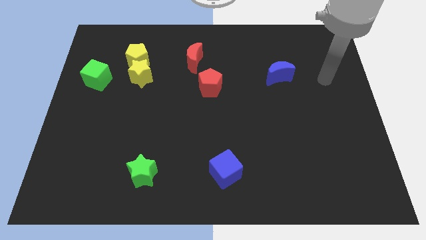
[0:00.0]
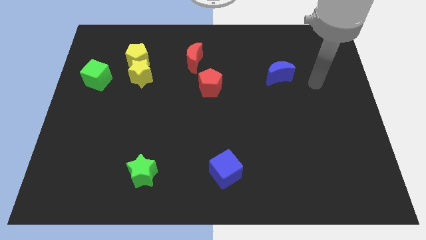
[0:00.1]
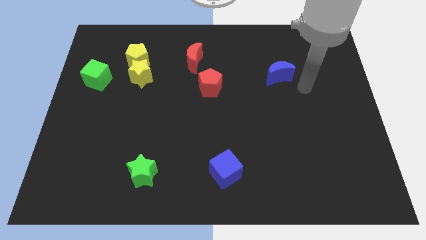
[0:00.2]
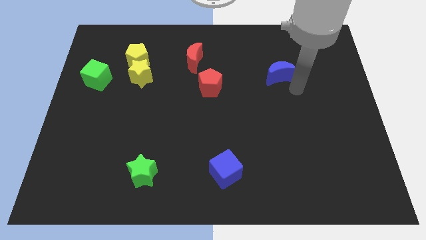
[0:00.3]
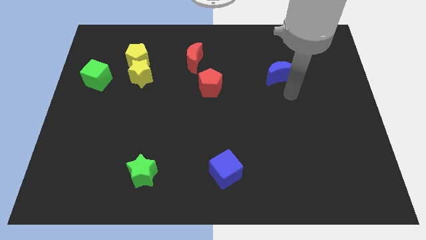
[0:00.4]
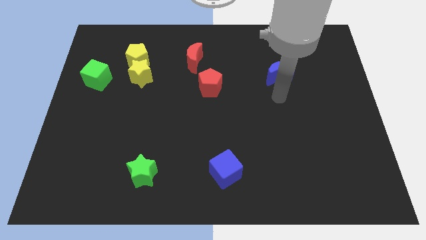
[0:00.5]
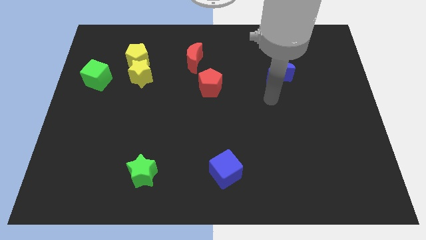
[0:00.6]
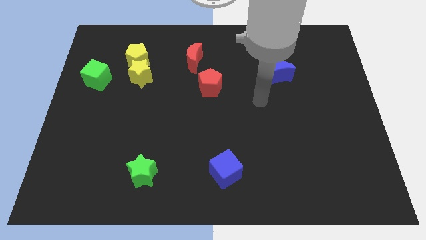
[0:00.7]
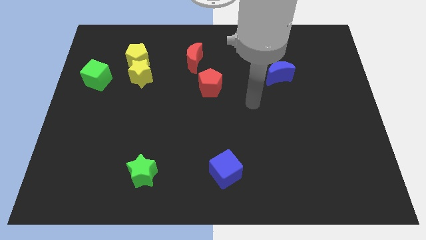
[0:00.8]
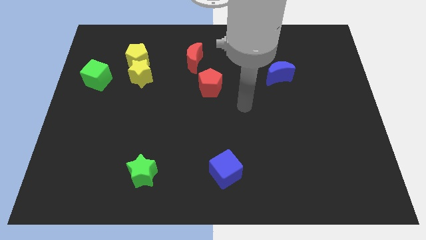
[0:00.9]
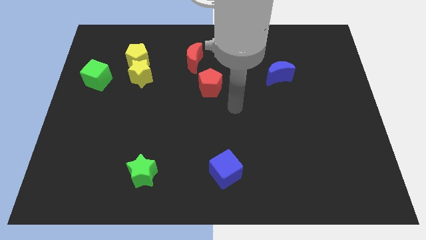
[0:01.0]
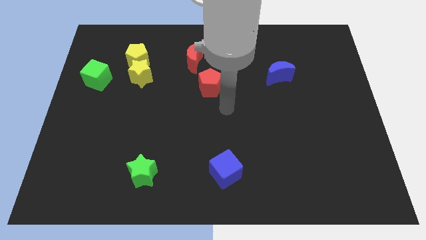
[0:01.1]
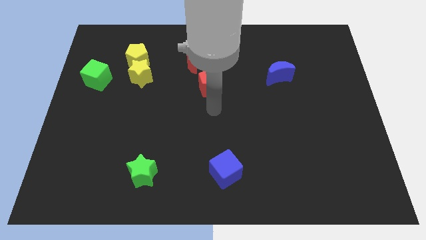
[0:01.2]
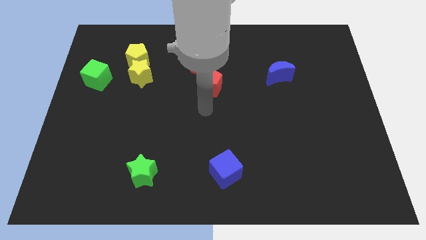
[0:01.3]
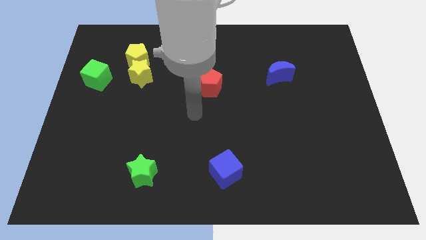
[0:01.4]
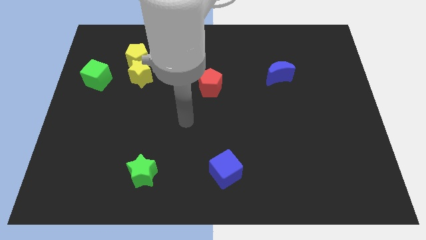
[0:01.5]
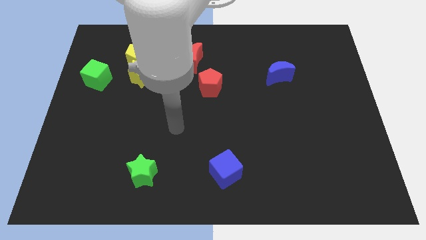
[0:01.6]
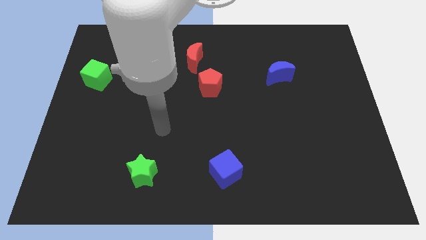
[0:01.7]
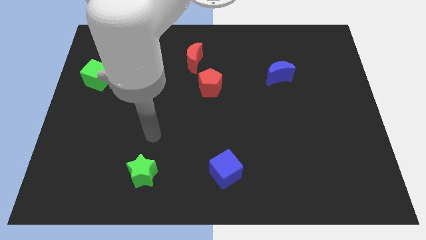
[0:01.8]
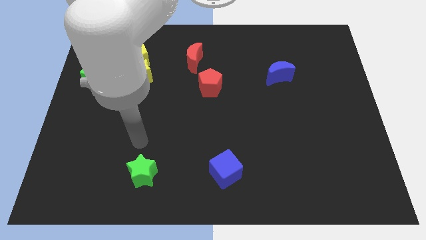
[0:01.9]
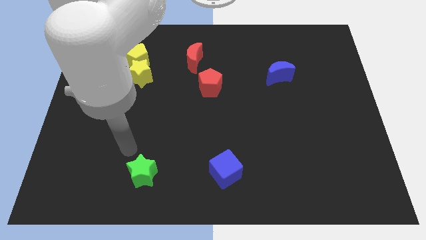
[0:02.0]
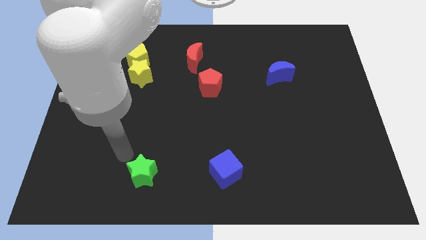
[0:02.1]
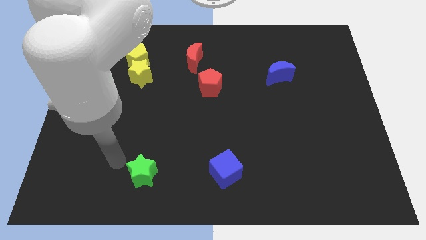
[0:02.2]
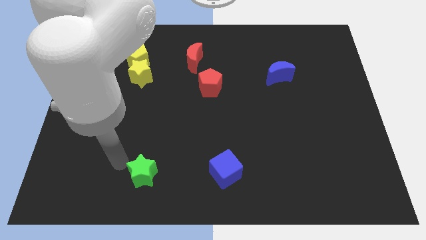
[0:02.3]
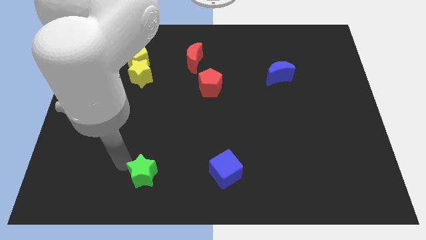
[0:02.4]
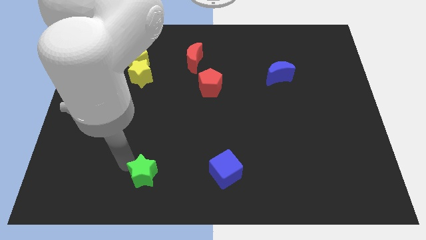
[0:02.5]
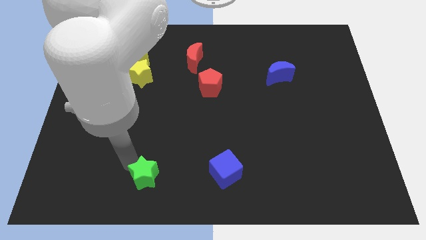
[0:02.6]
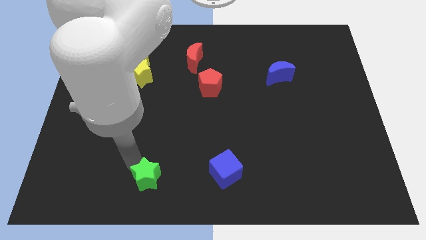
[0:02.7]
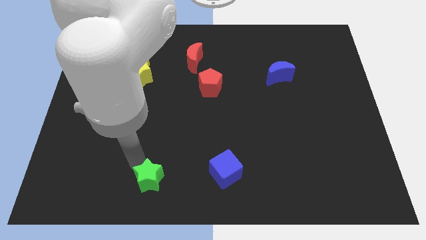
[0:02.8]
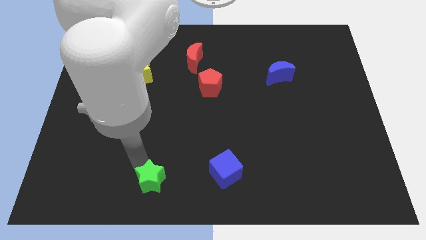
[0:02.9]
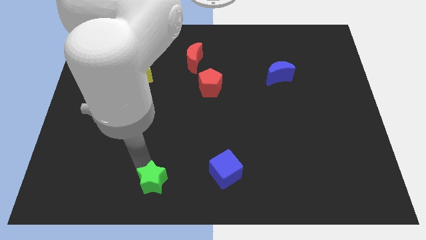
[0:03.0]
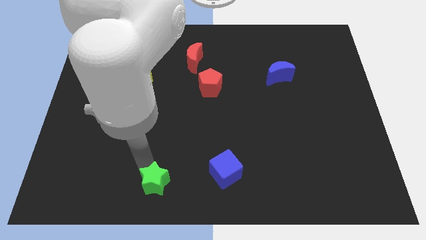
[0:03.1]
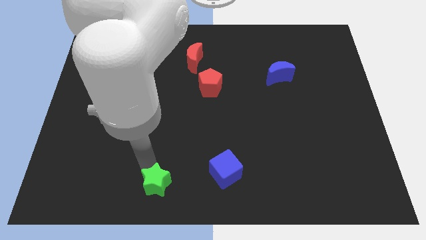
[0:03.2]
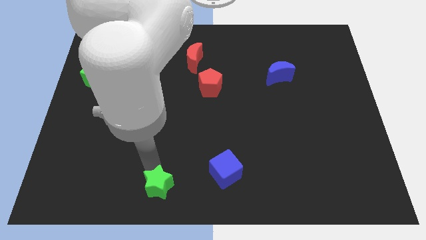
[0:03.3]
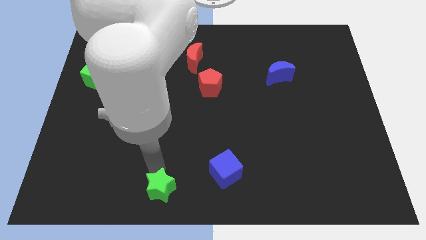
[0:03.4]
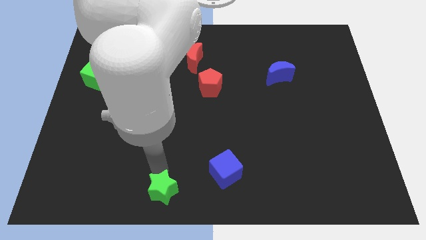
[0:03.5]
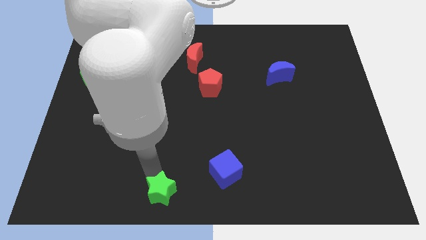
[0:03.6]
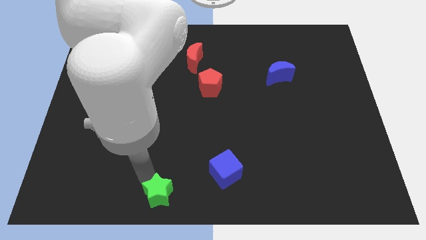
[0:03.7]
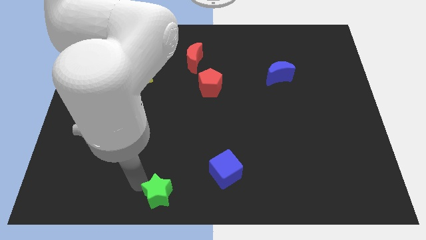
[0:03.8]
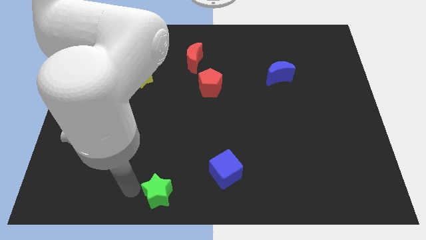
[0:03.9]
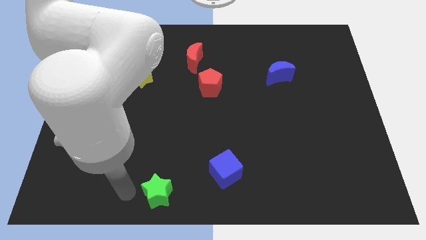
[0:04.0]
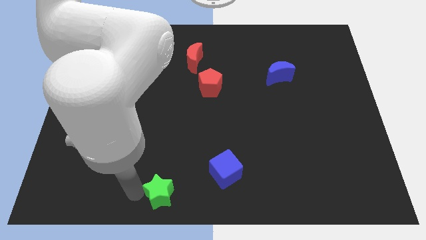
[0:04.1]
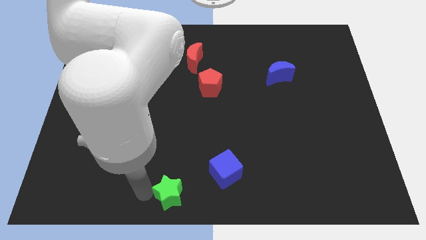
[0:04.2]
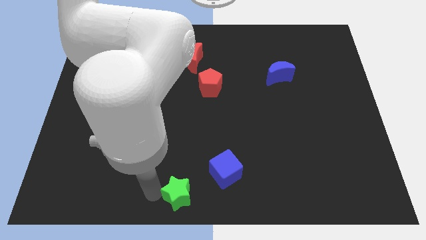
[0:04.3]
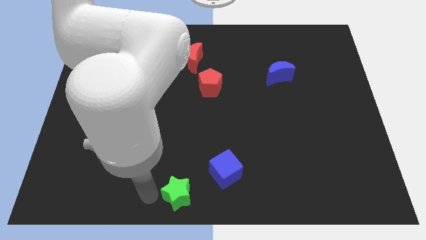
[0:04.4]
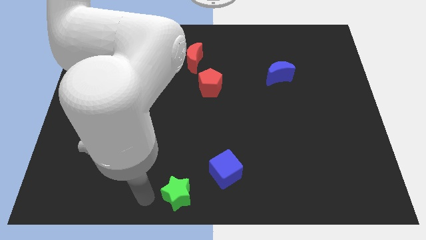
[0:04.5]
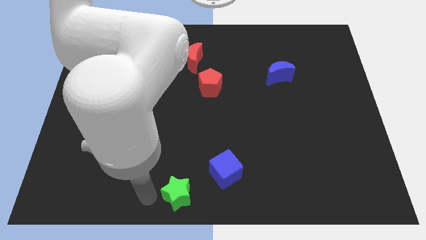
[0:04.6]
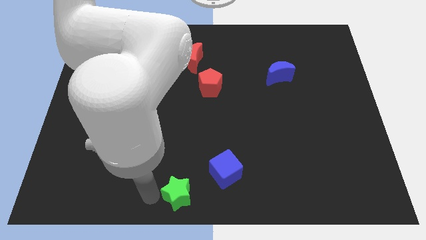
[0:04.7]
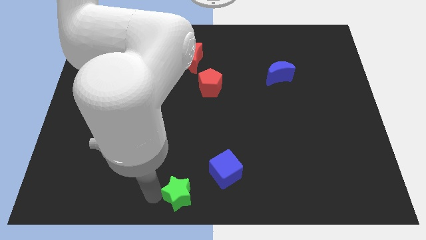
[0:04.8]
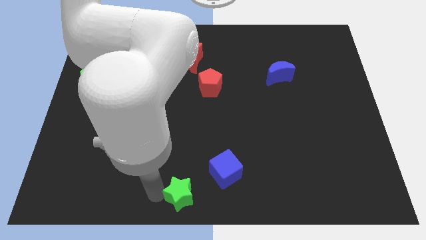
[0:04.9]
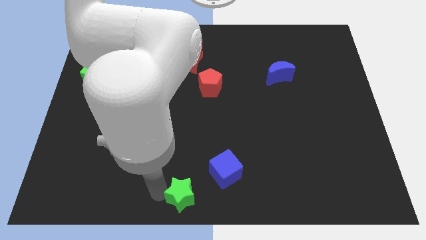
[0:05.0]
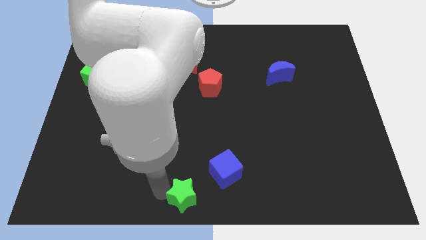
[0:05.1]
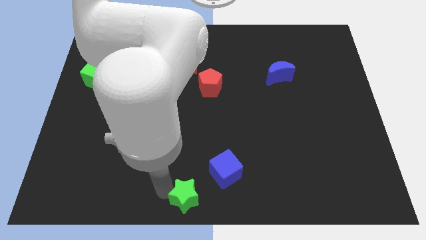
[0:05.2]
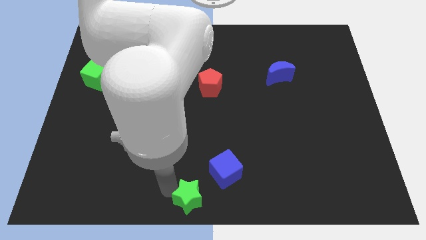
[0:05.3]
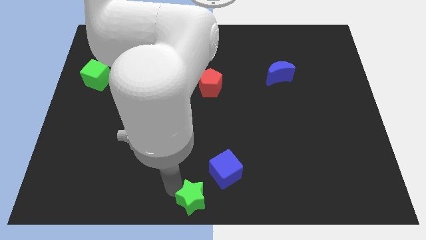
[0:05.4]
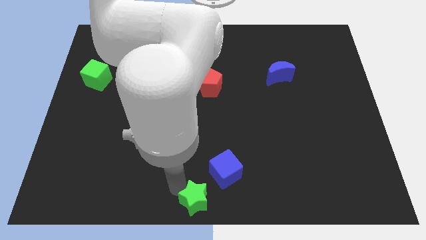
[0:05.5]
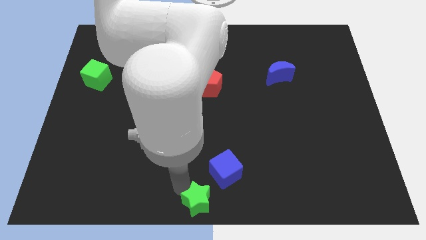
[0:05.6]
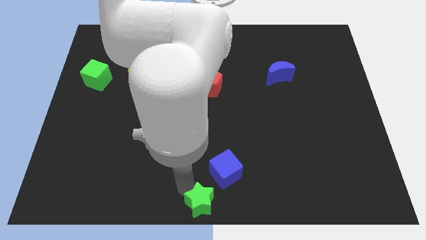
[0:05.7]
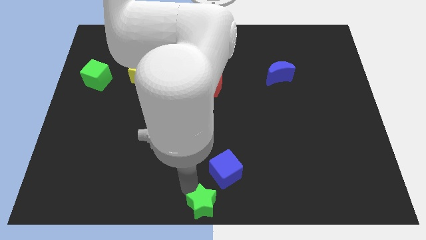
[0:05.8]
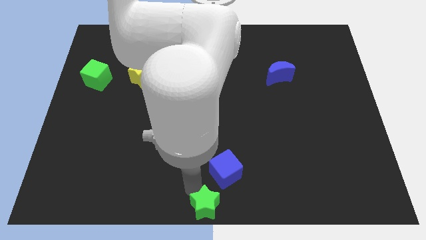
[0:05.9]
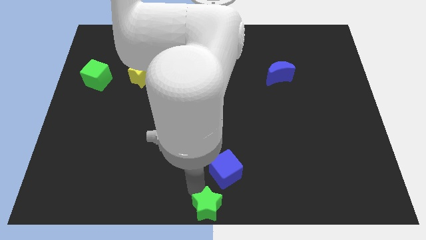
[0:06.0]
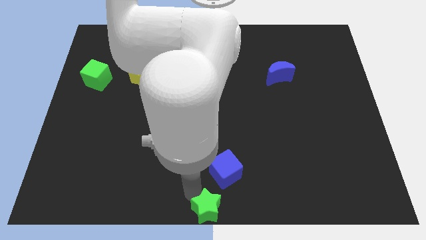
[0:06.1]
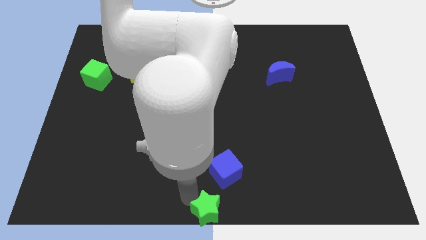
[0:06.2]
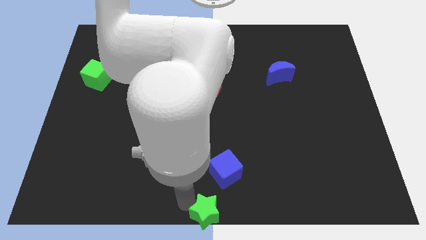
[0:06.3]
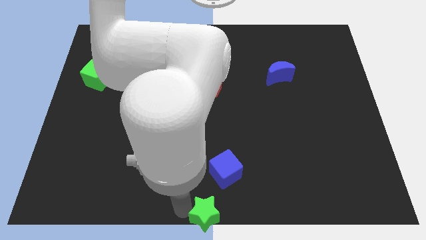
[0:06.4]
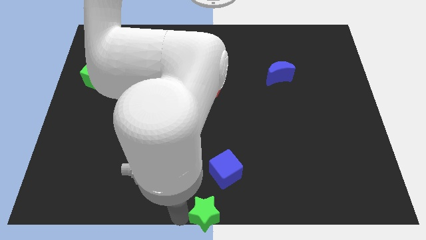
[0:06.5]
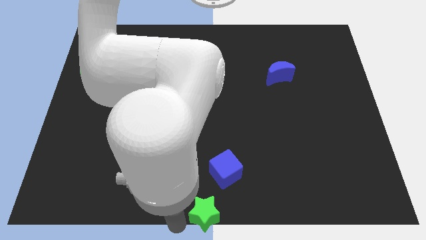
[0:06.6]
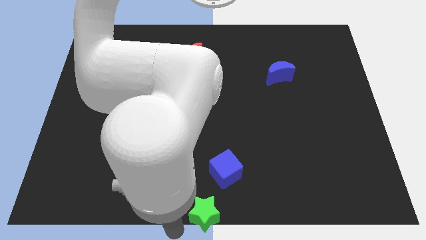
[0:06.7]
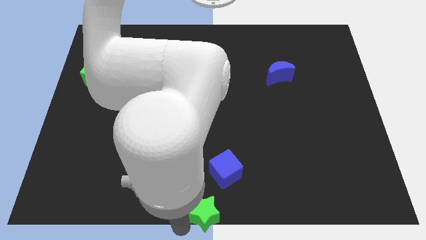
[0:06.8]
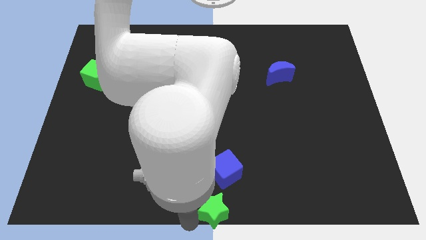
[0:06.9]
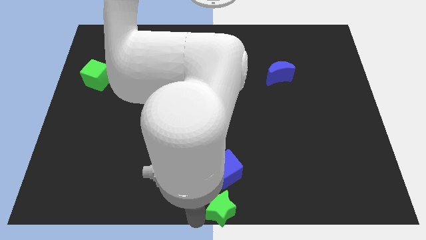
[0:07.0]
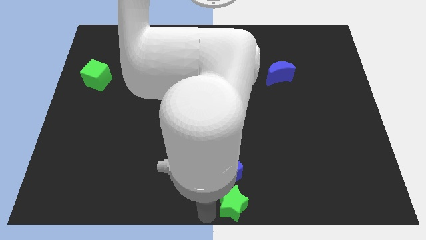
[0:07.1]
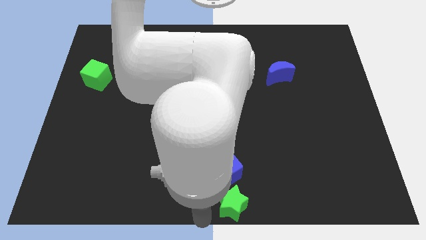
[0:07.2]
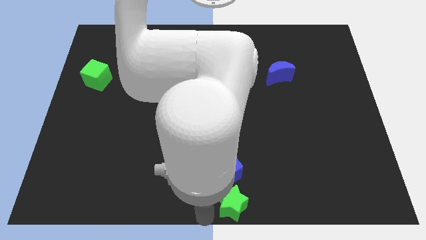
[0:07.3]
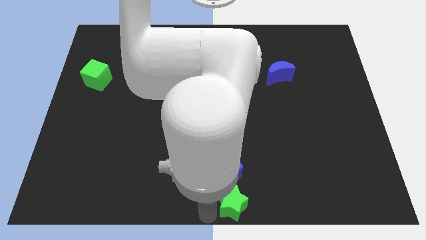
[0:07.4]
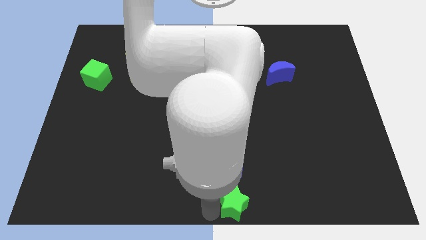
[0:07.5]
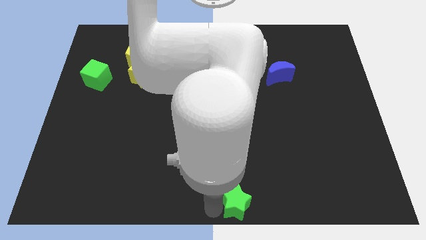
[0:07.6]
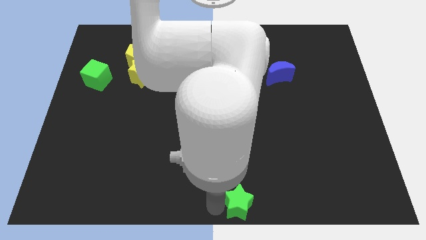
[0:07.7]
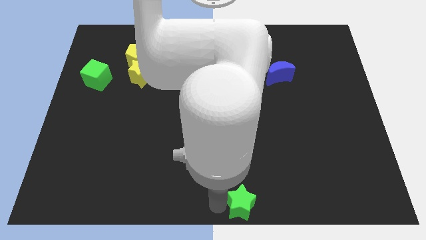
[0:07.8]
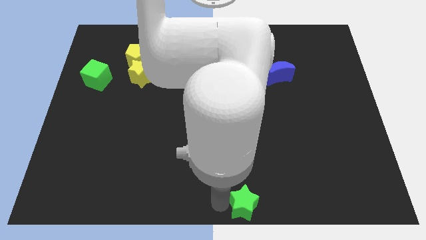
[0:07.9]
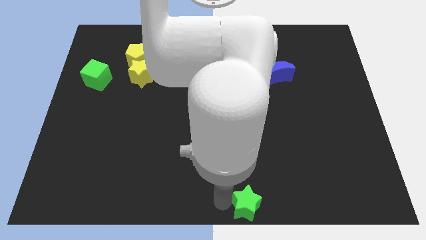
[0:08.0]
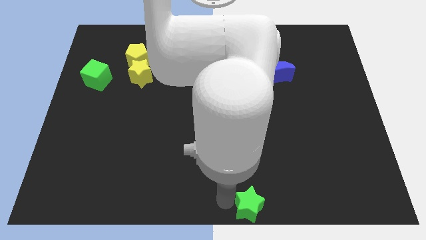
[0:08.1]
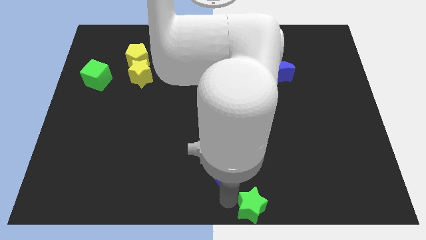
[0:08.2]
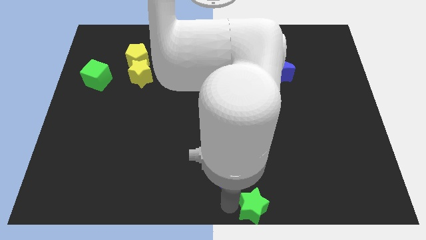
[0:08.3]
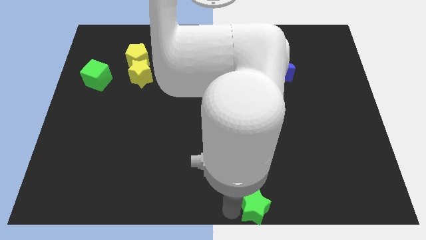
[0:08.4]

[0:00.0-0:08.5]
move the green star right
